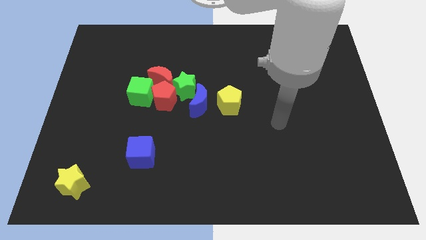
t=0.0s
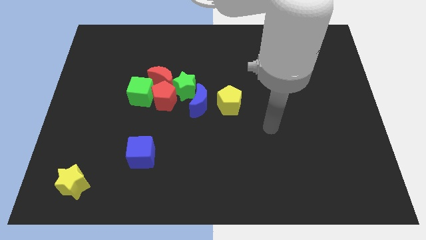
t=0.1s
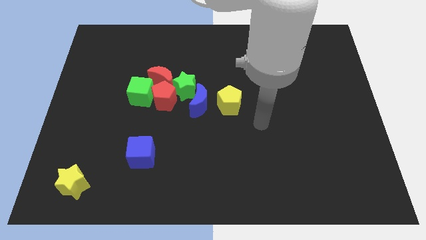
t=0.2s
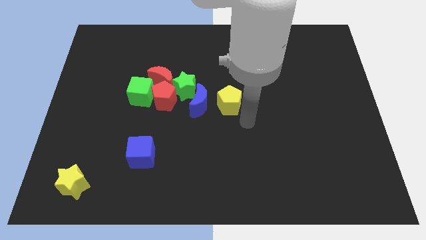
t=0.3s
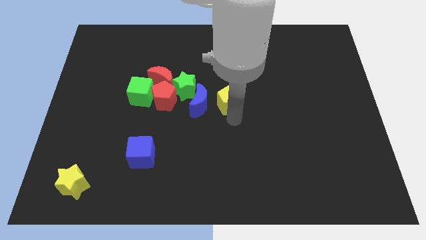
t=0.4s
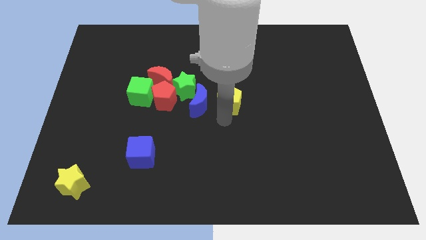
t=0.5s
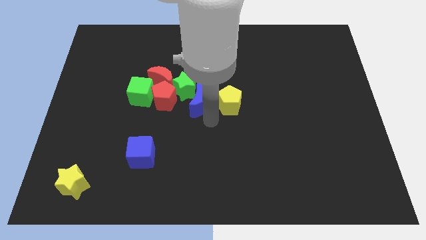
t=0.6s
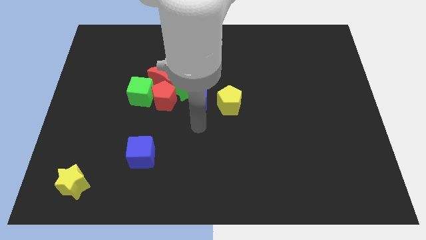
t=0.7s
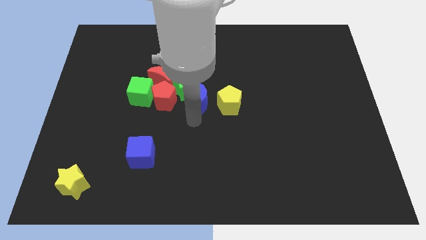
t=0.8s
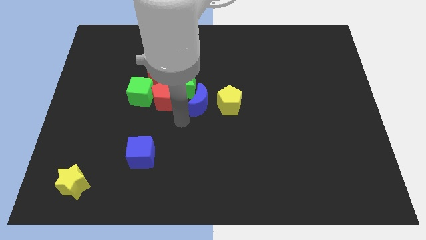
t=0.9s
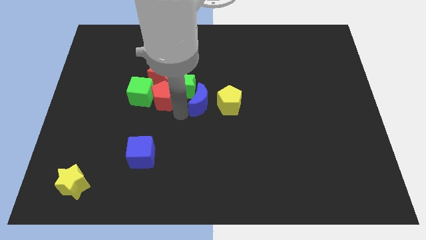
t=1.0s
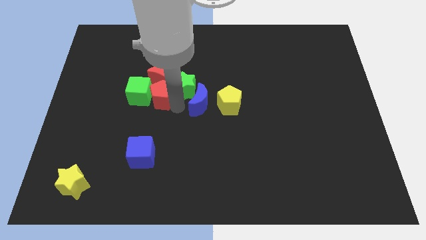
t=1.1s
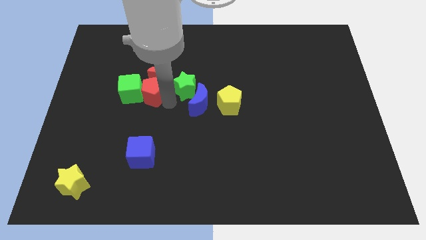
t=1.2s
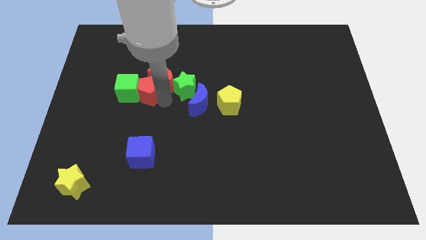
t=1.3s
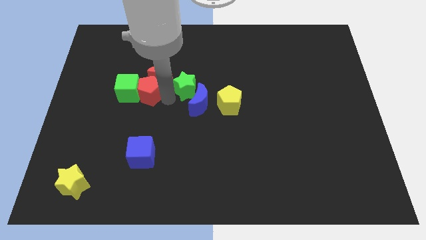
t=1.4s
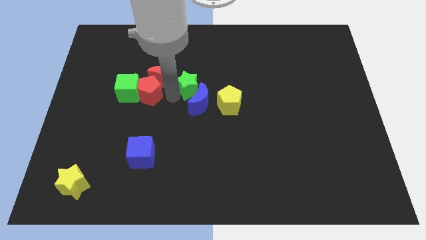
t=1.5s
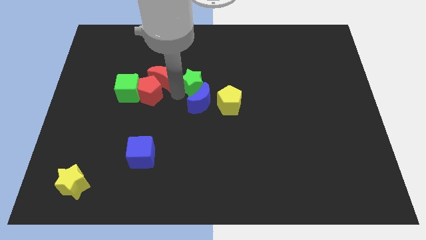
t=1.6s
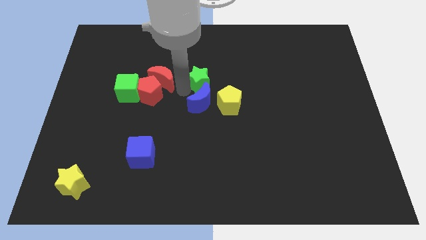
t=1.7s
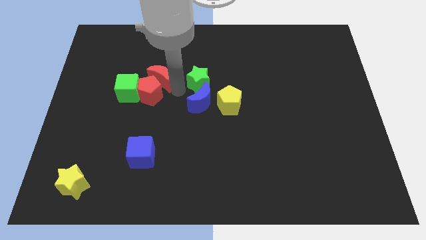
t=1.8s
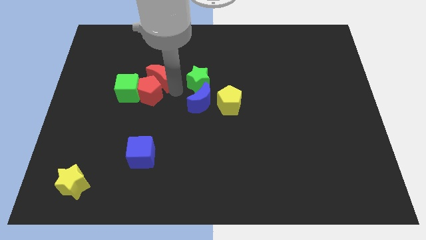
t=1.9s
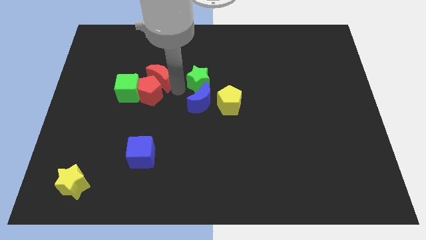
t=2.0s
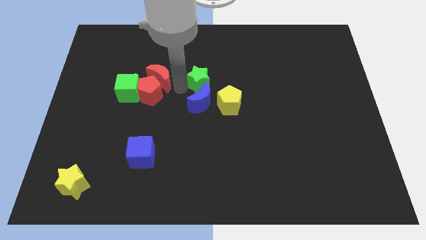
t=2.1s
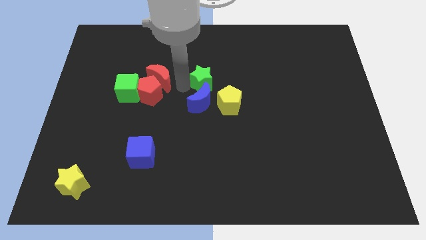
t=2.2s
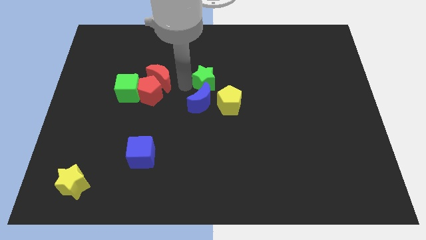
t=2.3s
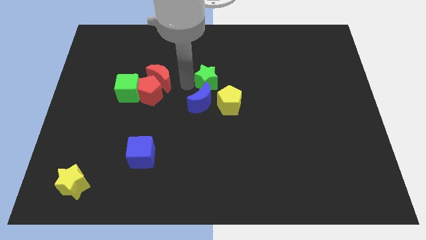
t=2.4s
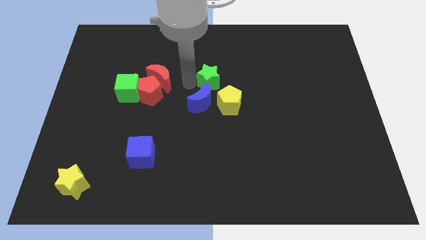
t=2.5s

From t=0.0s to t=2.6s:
pull the green star apart from the group of blocks

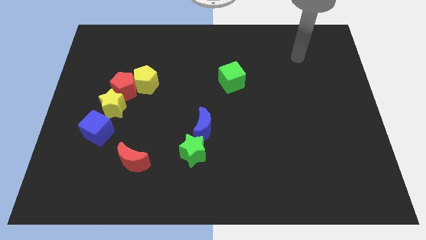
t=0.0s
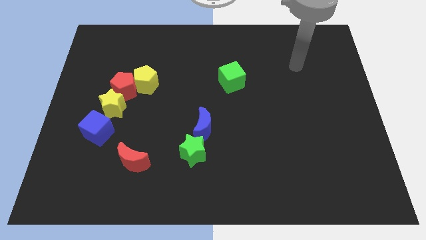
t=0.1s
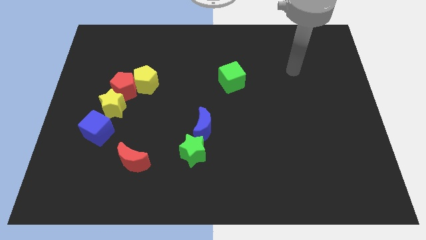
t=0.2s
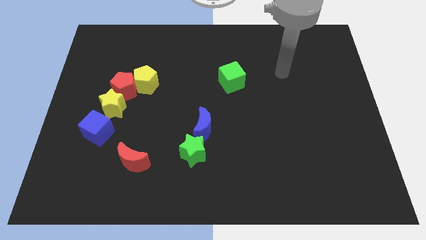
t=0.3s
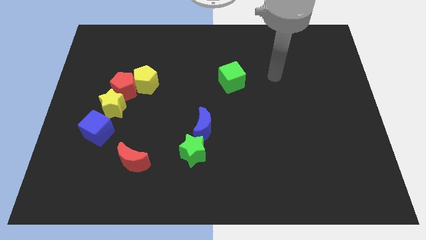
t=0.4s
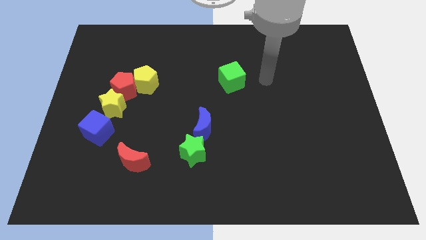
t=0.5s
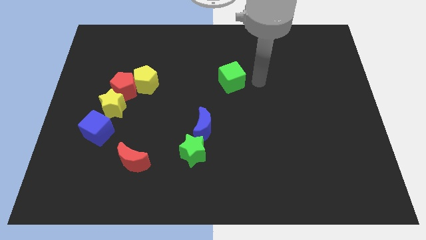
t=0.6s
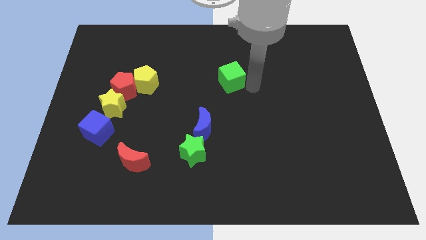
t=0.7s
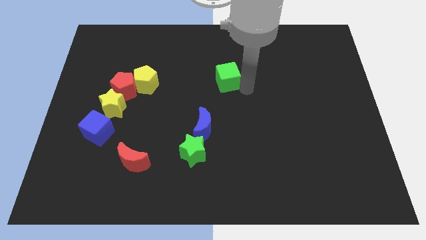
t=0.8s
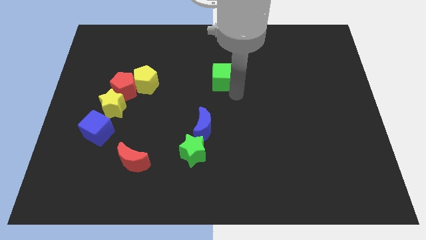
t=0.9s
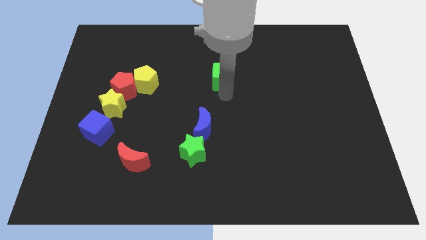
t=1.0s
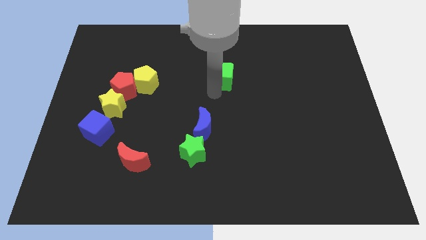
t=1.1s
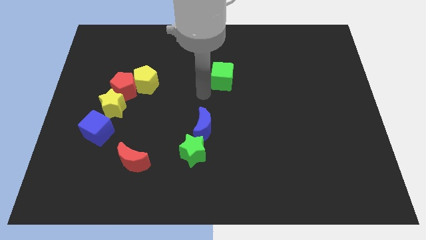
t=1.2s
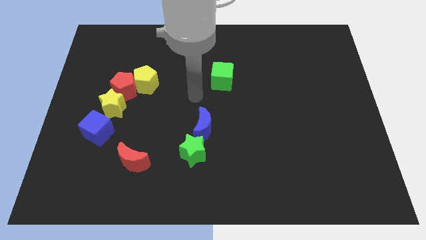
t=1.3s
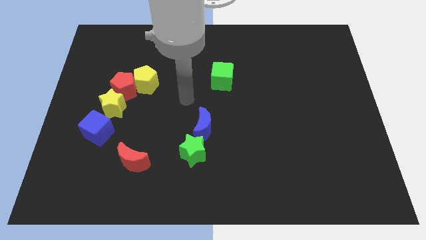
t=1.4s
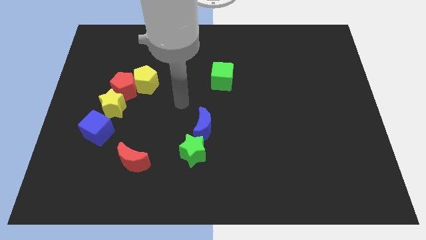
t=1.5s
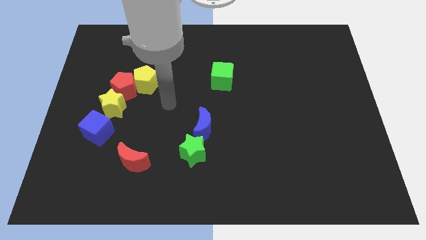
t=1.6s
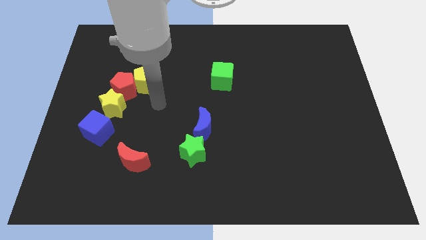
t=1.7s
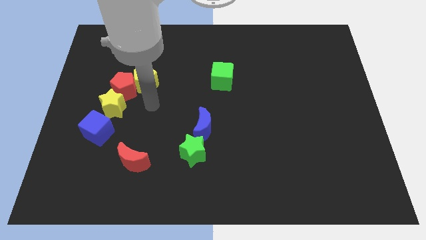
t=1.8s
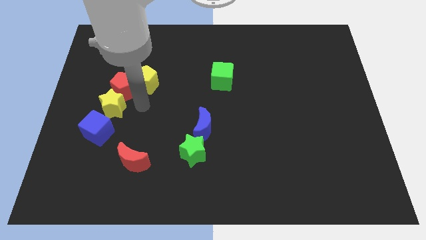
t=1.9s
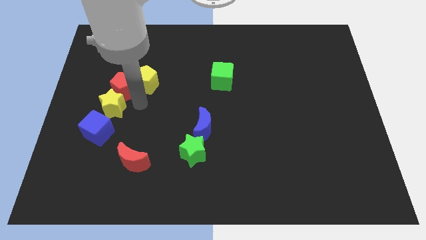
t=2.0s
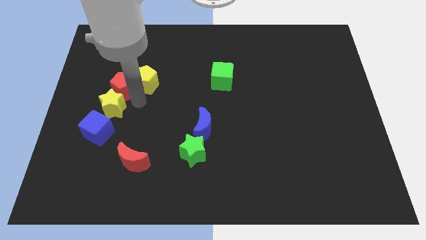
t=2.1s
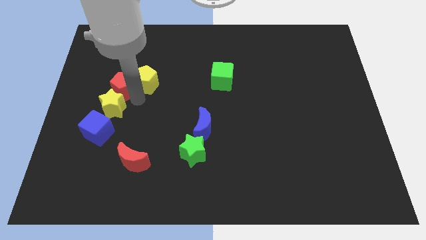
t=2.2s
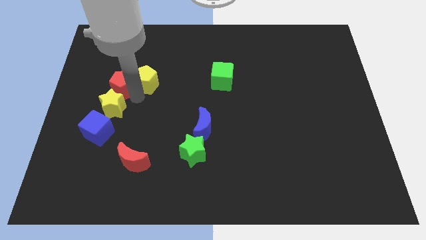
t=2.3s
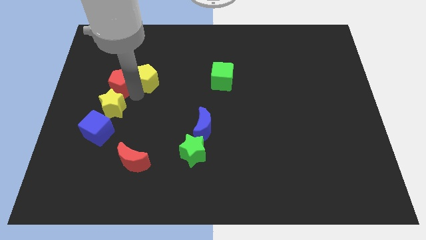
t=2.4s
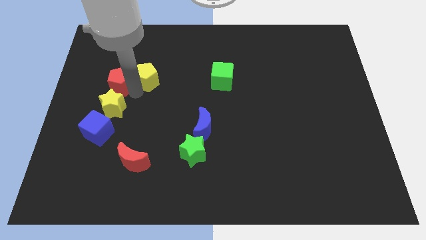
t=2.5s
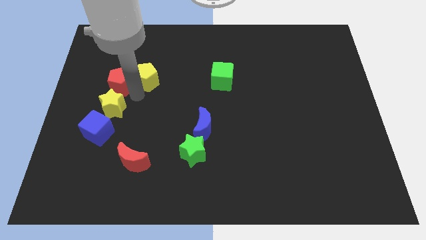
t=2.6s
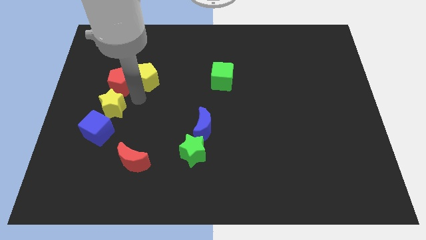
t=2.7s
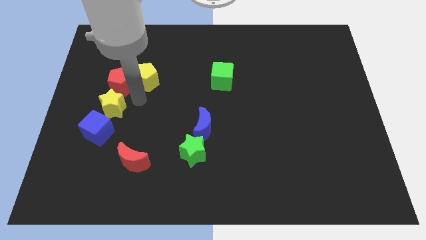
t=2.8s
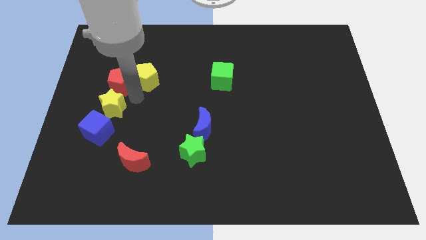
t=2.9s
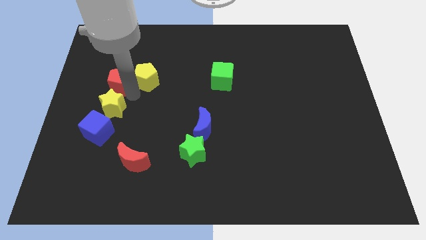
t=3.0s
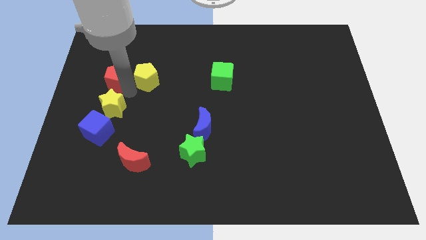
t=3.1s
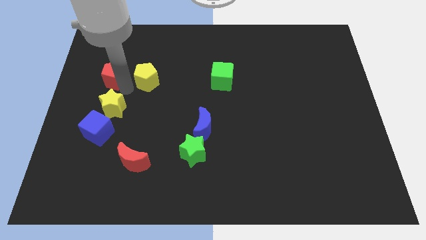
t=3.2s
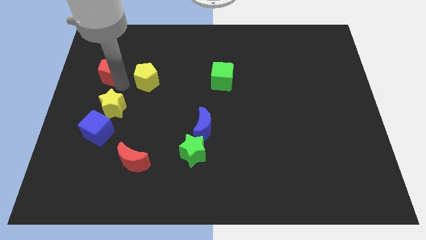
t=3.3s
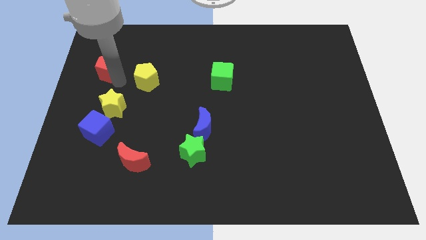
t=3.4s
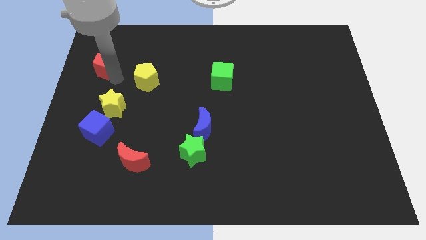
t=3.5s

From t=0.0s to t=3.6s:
pull the red pentagon apart from the yellow pentagon and yellow star

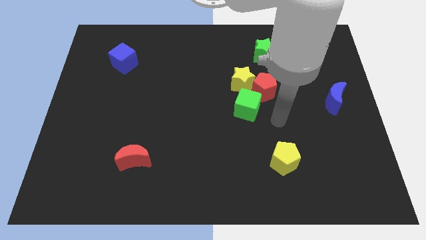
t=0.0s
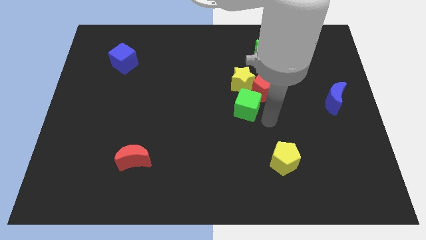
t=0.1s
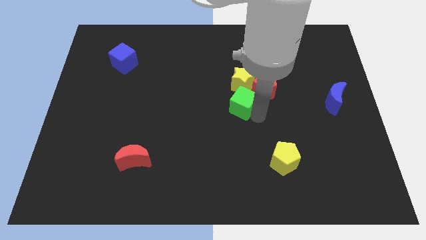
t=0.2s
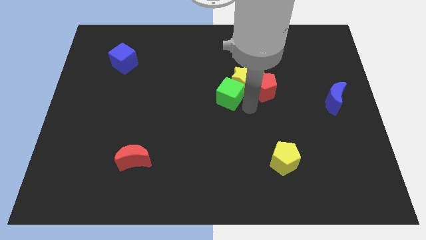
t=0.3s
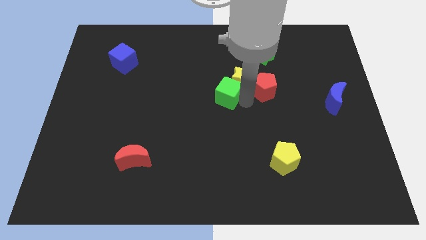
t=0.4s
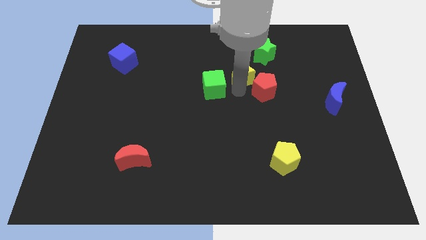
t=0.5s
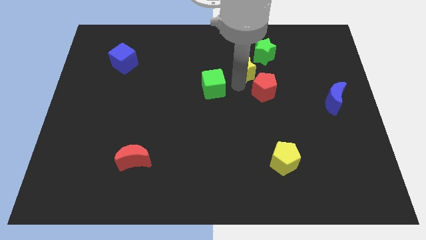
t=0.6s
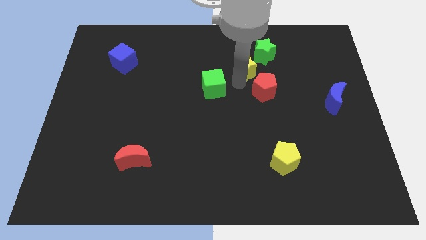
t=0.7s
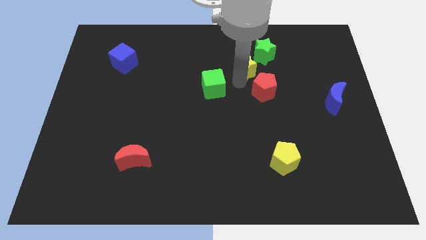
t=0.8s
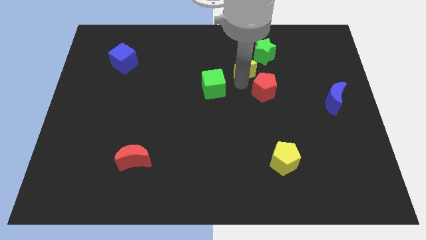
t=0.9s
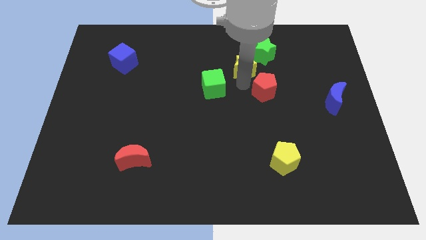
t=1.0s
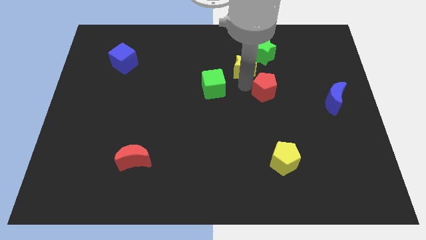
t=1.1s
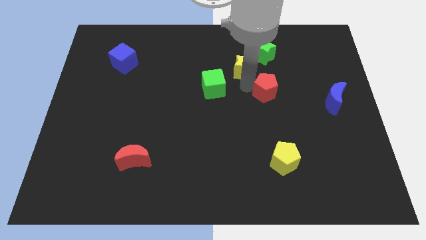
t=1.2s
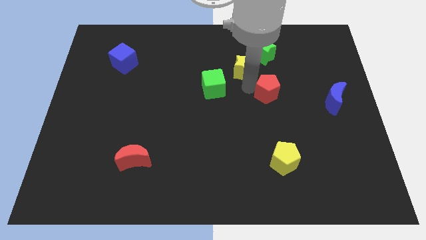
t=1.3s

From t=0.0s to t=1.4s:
move the red pentagon away from the yellow star and green cube

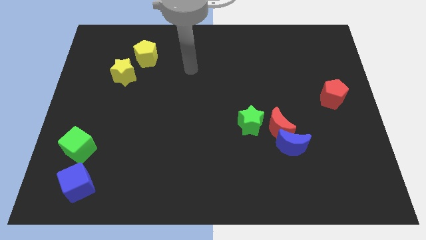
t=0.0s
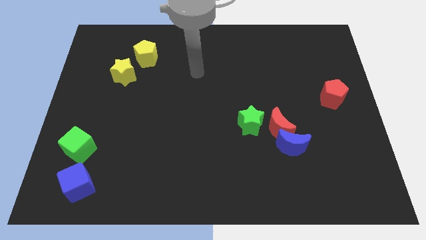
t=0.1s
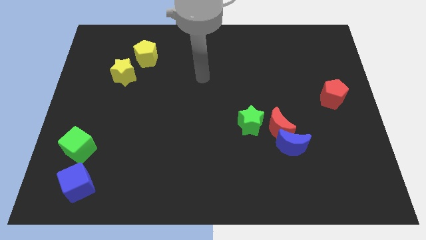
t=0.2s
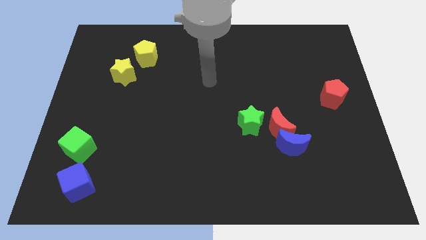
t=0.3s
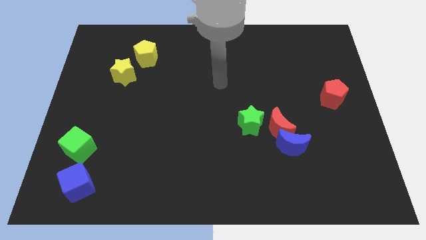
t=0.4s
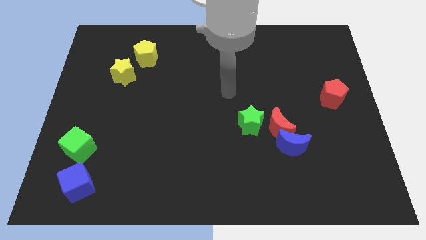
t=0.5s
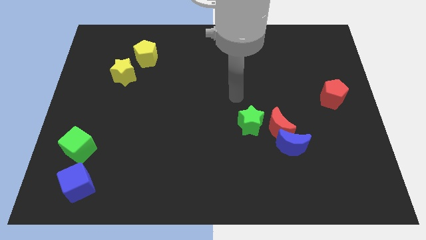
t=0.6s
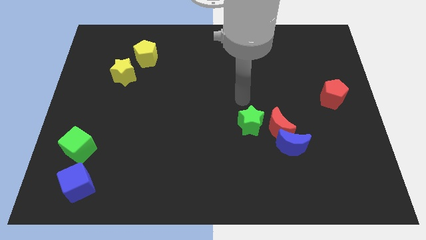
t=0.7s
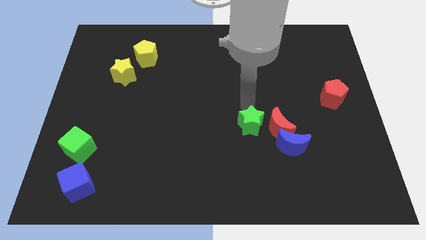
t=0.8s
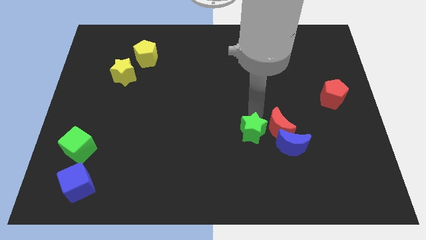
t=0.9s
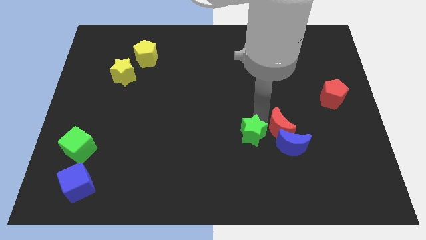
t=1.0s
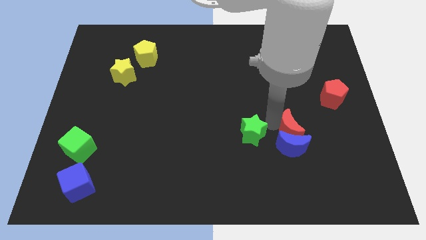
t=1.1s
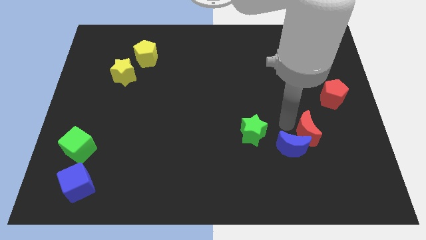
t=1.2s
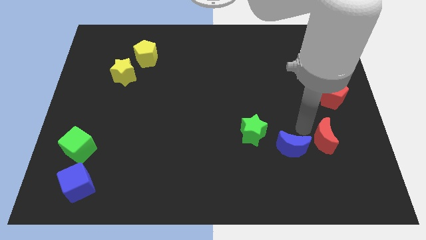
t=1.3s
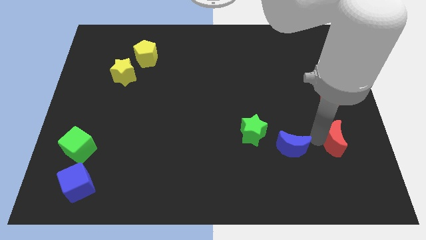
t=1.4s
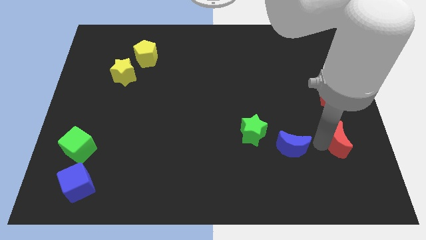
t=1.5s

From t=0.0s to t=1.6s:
separate the blue moon from the red moon

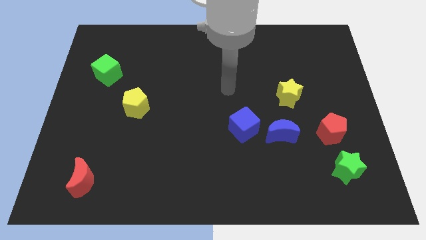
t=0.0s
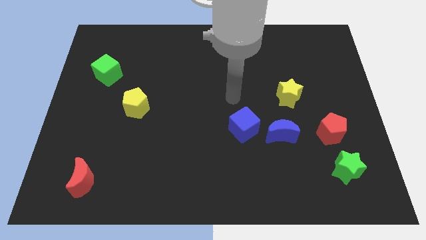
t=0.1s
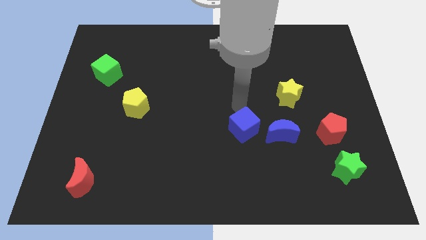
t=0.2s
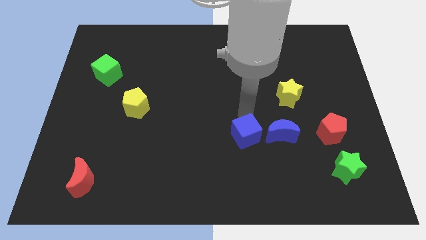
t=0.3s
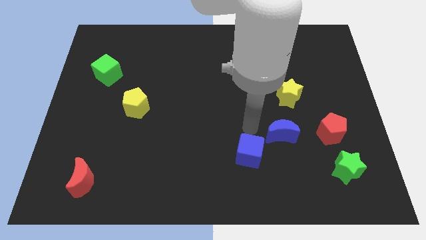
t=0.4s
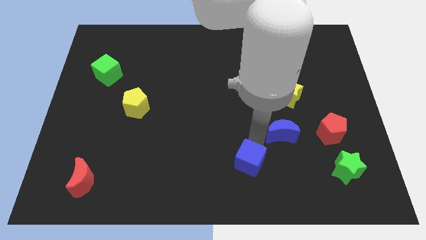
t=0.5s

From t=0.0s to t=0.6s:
pull the blue moon apart from the blue cube
